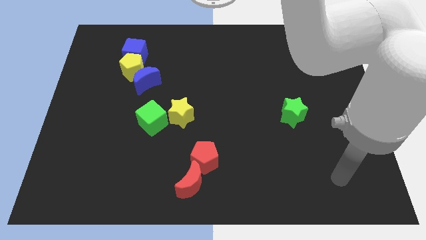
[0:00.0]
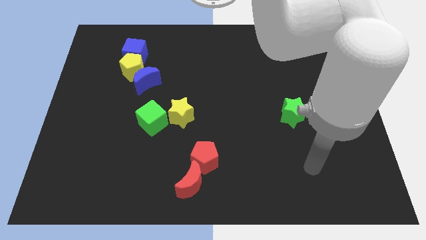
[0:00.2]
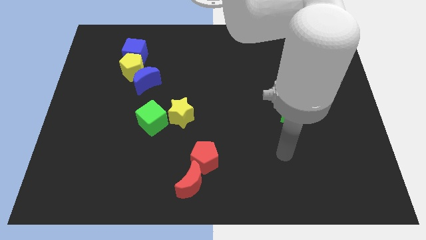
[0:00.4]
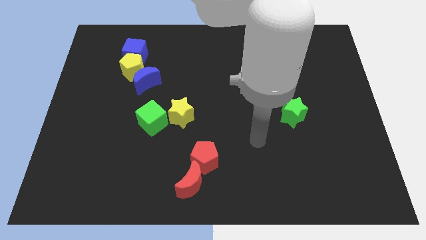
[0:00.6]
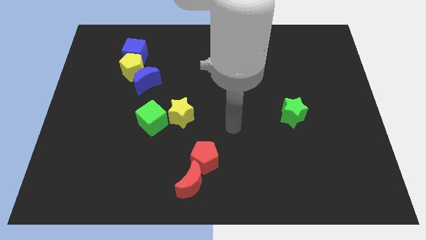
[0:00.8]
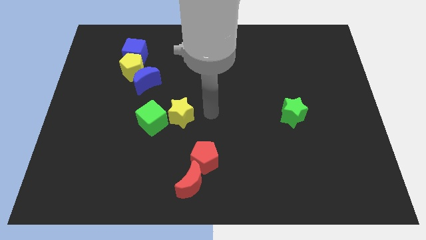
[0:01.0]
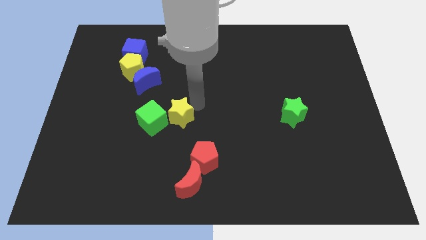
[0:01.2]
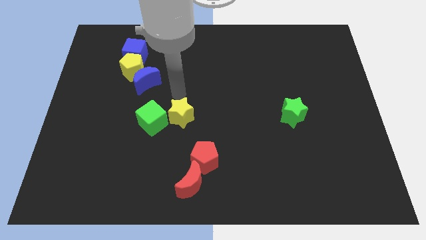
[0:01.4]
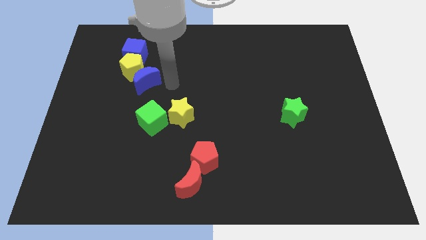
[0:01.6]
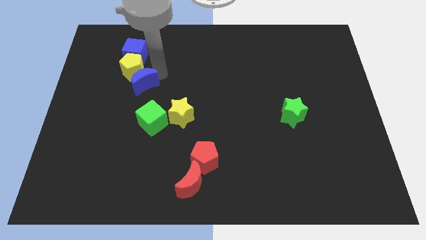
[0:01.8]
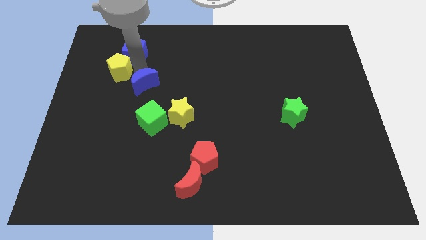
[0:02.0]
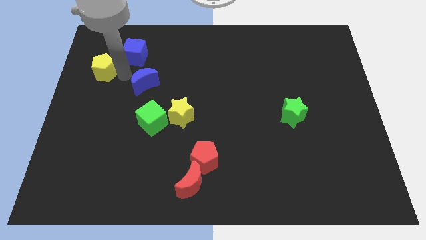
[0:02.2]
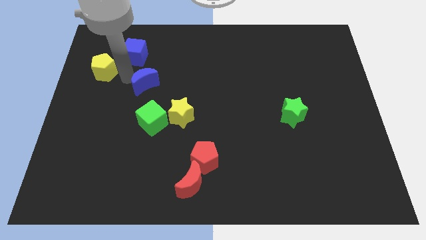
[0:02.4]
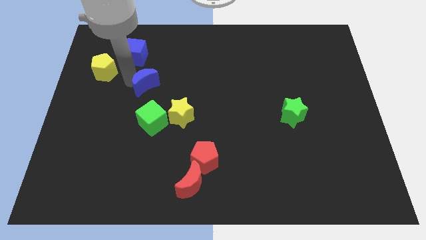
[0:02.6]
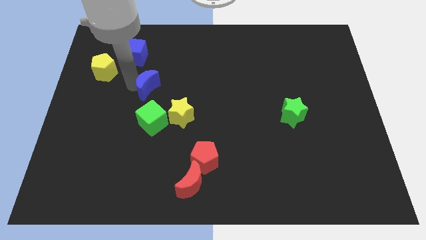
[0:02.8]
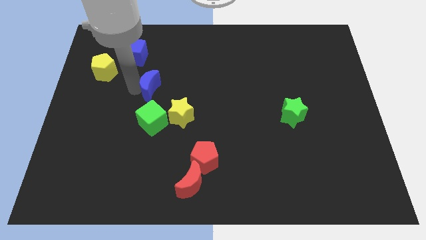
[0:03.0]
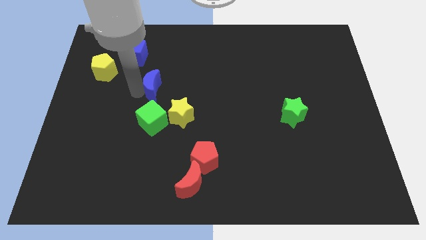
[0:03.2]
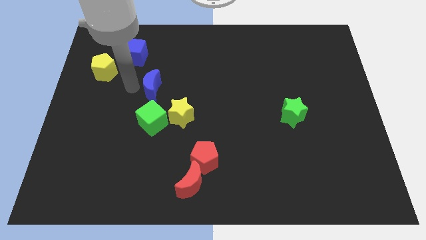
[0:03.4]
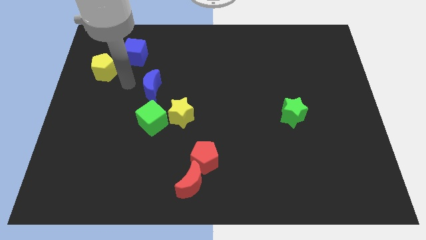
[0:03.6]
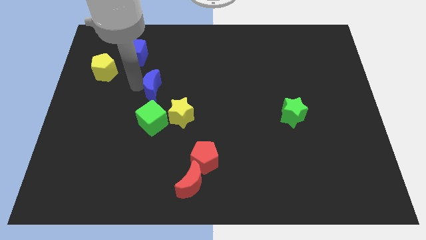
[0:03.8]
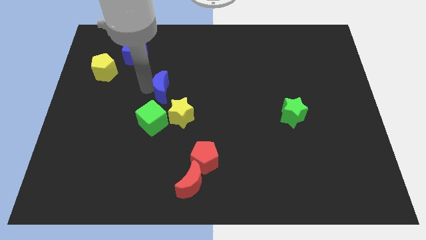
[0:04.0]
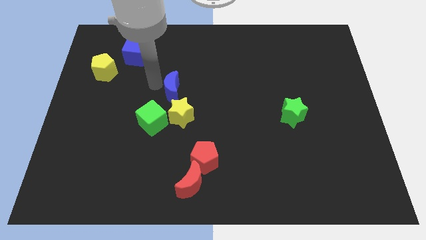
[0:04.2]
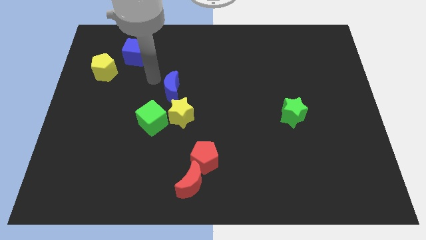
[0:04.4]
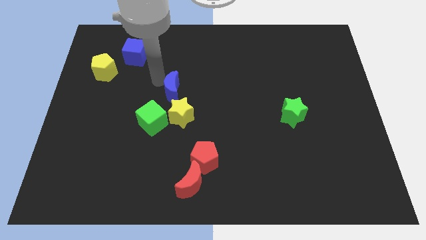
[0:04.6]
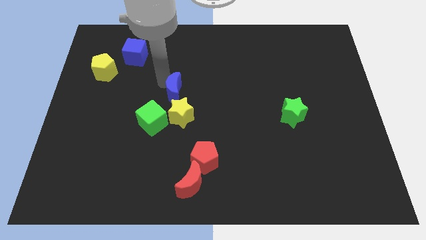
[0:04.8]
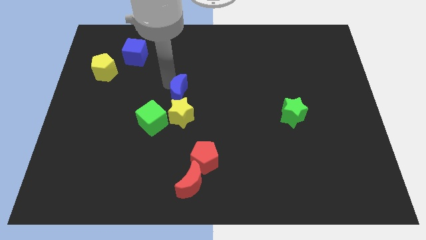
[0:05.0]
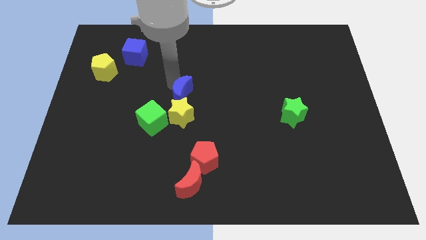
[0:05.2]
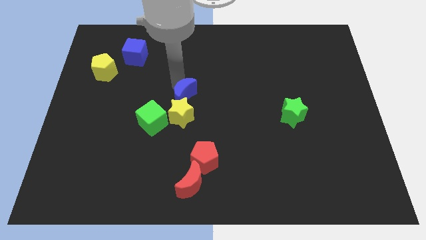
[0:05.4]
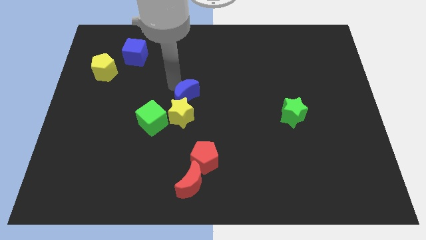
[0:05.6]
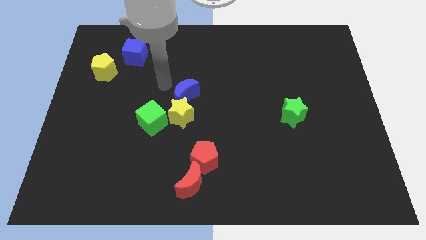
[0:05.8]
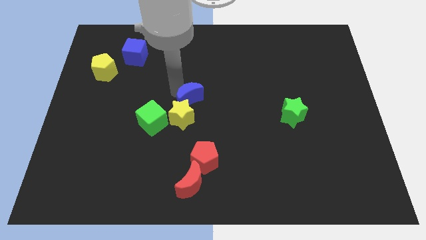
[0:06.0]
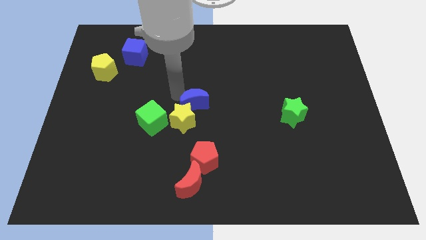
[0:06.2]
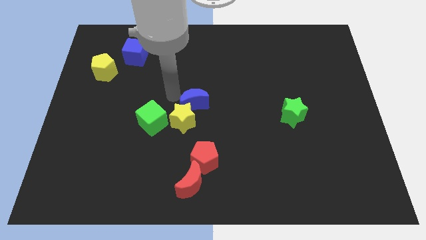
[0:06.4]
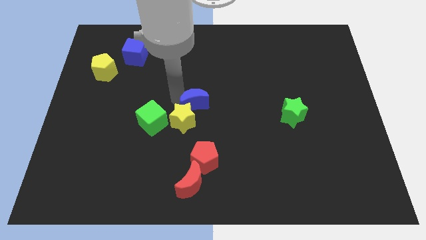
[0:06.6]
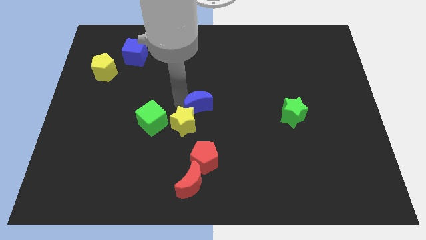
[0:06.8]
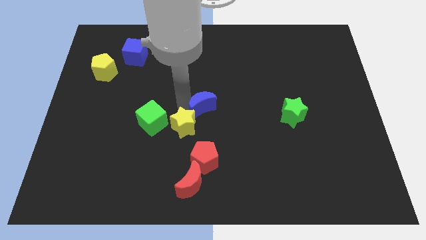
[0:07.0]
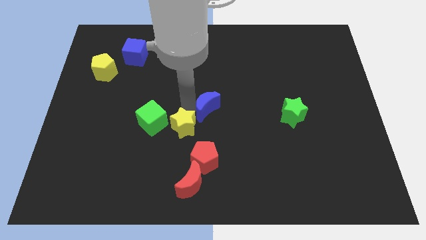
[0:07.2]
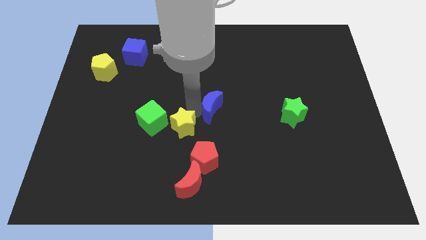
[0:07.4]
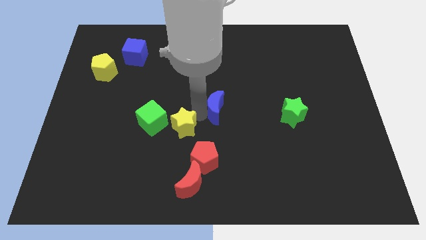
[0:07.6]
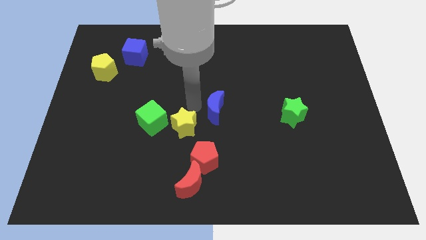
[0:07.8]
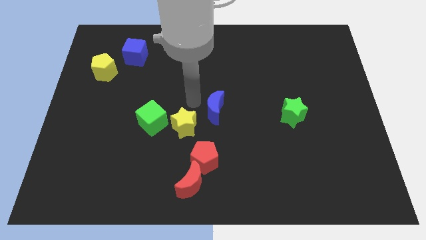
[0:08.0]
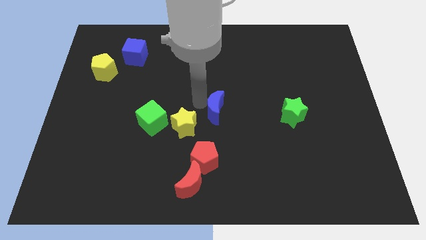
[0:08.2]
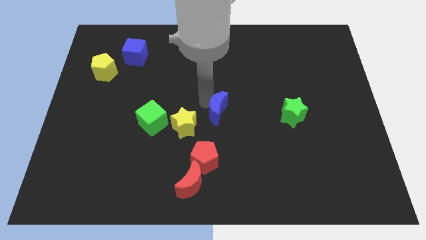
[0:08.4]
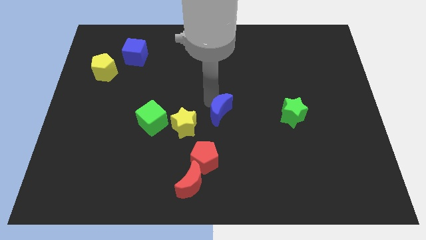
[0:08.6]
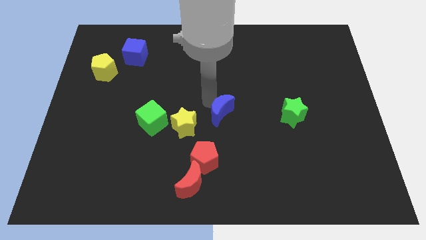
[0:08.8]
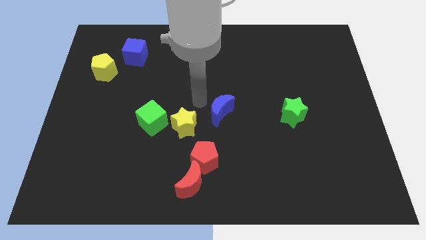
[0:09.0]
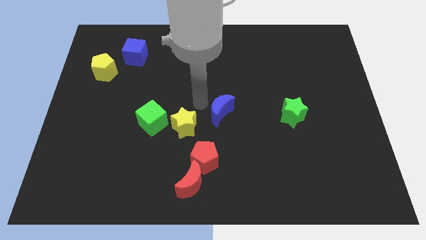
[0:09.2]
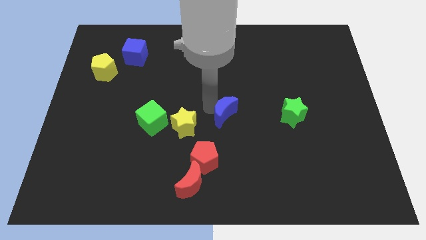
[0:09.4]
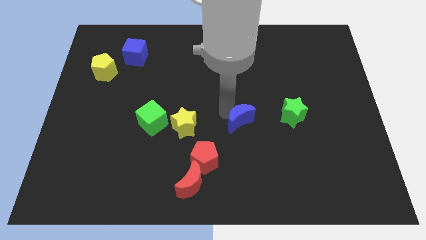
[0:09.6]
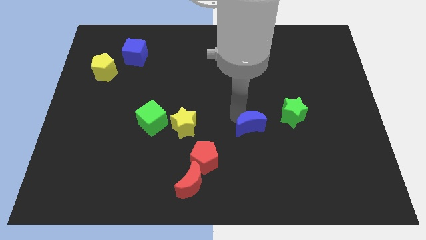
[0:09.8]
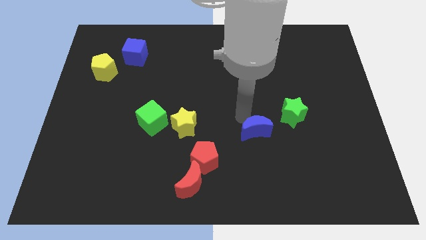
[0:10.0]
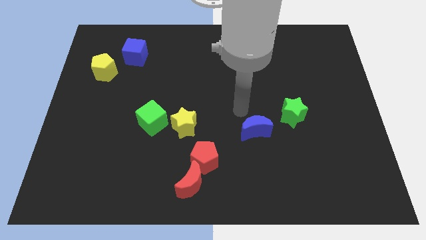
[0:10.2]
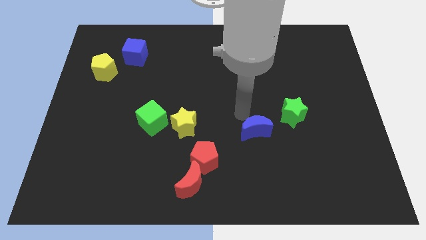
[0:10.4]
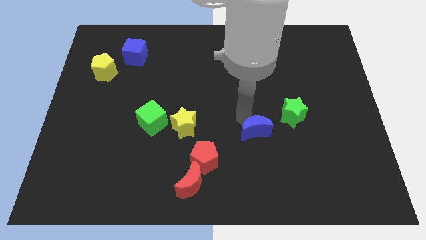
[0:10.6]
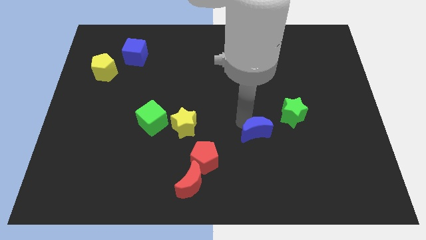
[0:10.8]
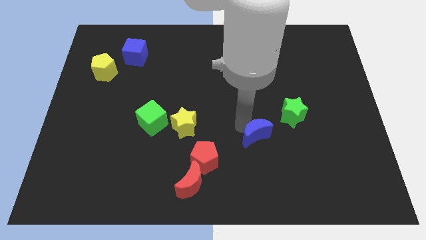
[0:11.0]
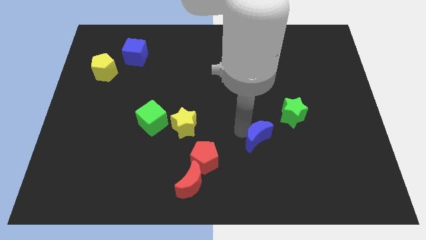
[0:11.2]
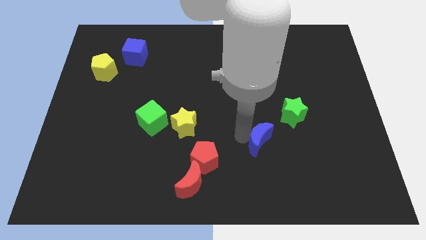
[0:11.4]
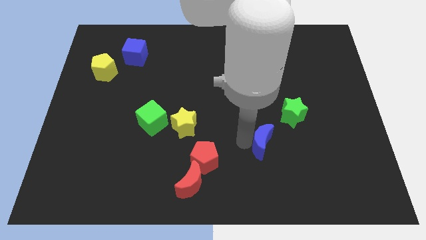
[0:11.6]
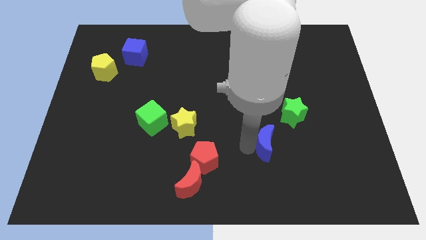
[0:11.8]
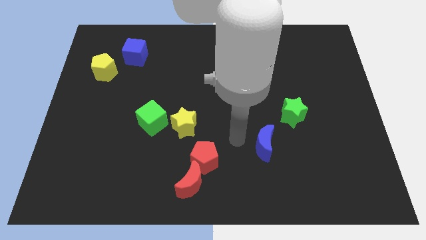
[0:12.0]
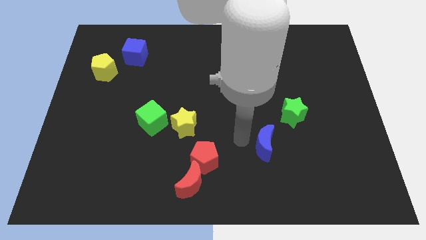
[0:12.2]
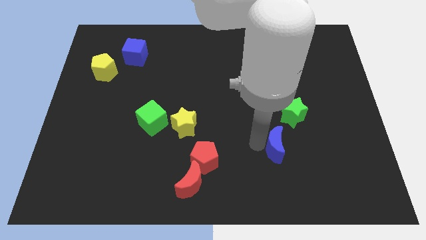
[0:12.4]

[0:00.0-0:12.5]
slide the blue moon to the bottom of the green star
